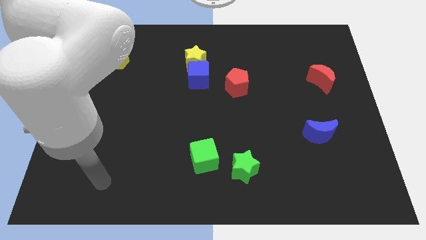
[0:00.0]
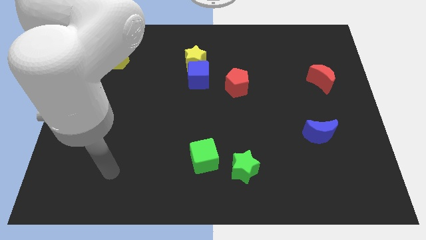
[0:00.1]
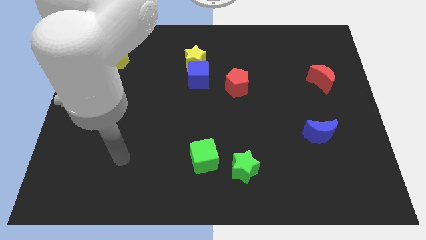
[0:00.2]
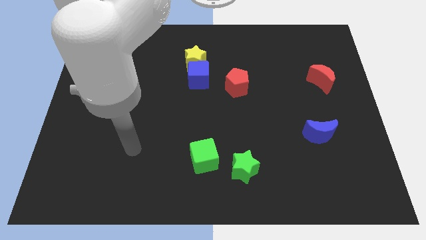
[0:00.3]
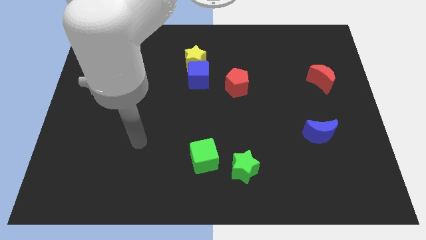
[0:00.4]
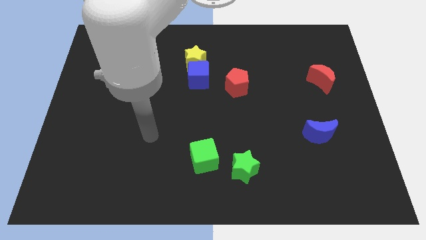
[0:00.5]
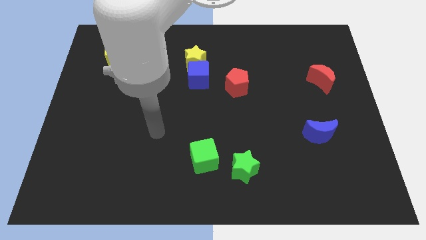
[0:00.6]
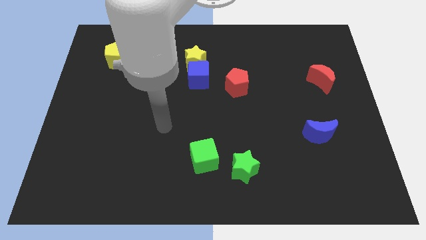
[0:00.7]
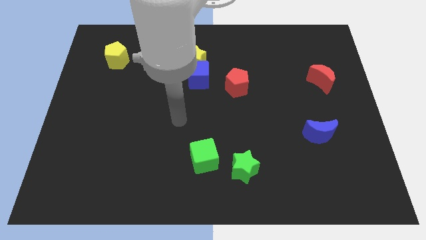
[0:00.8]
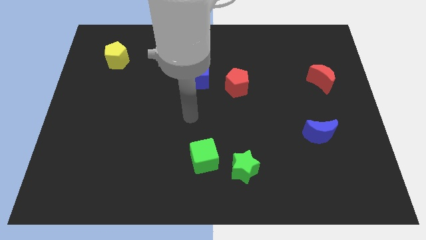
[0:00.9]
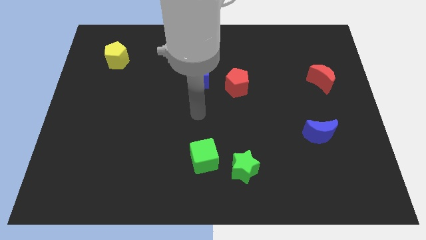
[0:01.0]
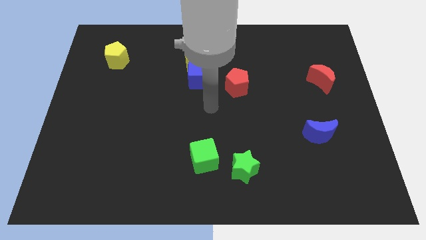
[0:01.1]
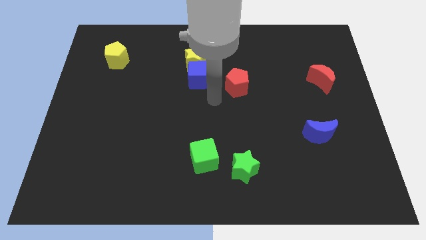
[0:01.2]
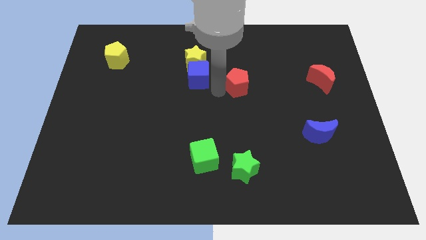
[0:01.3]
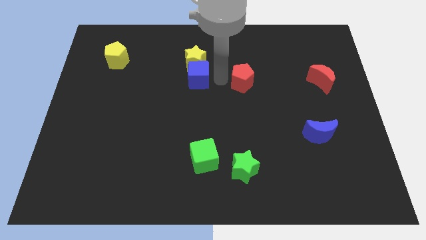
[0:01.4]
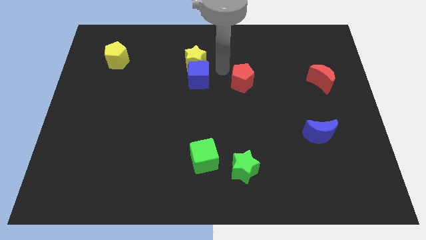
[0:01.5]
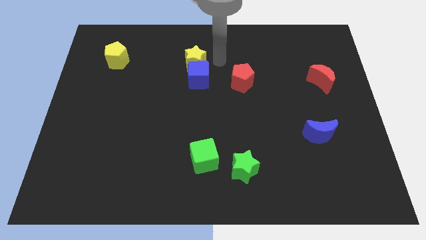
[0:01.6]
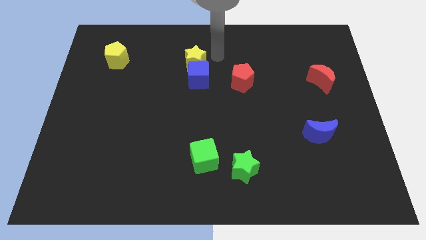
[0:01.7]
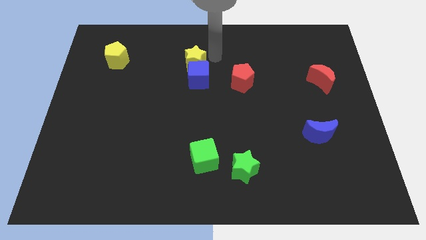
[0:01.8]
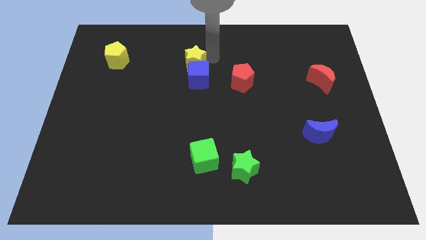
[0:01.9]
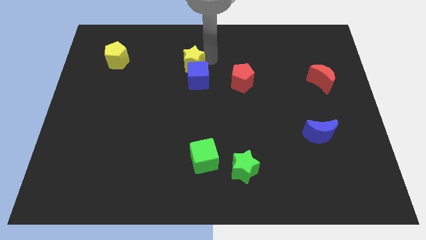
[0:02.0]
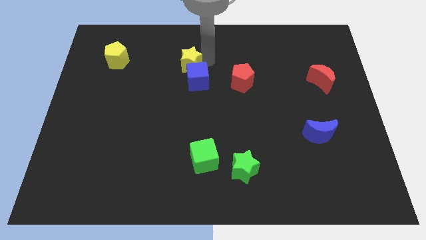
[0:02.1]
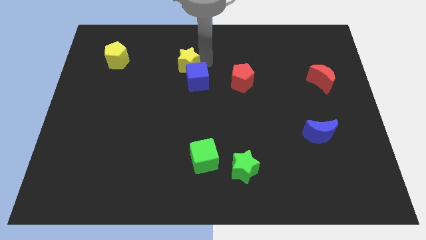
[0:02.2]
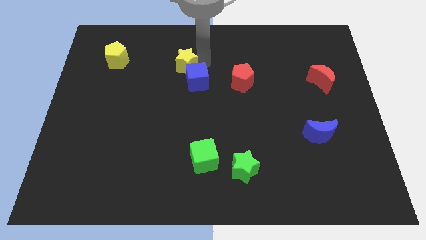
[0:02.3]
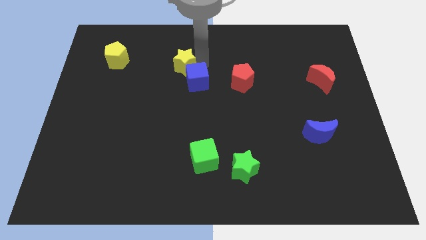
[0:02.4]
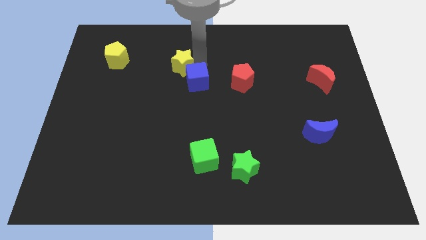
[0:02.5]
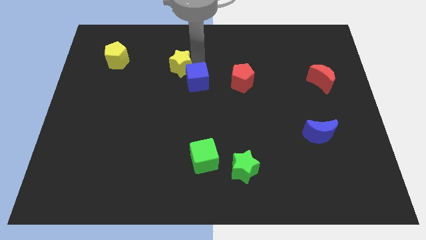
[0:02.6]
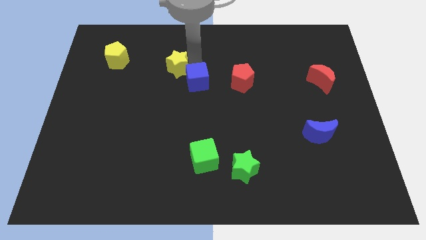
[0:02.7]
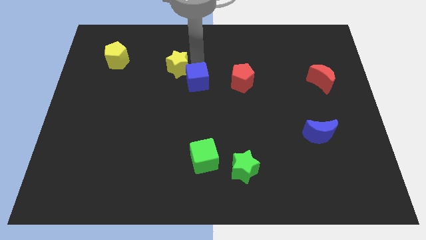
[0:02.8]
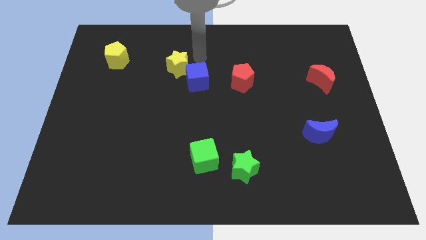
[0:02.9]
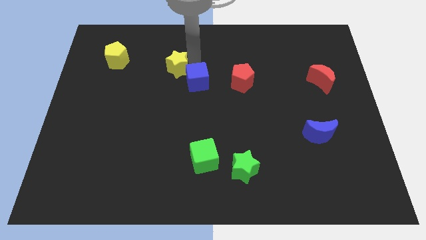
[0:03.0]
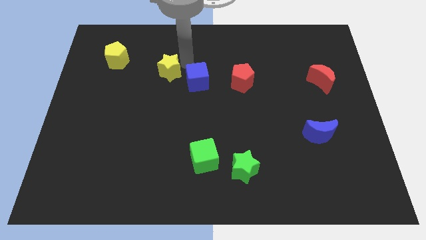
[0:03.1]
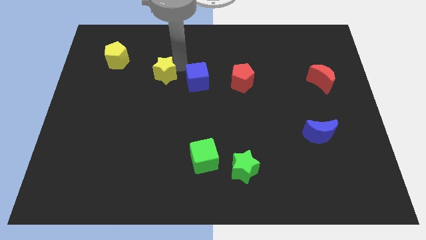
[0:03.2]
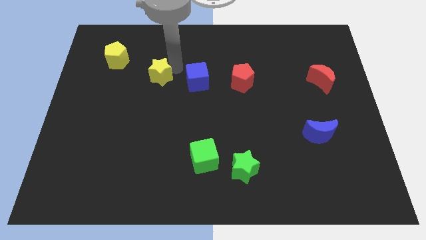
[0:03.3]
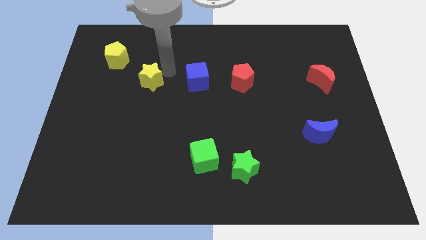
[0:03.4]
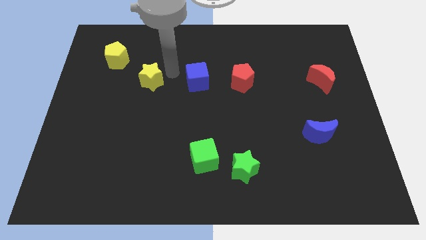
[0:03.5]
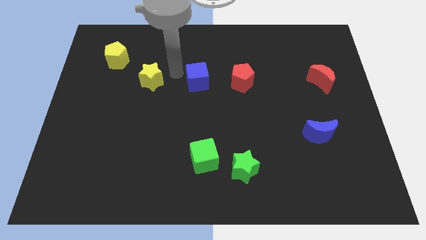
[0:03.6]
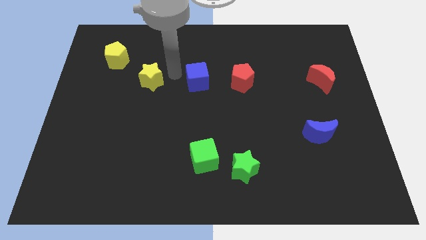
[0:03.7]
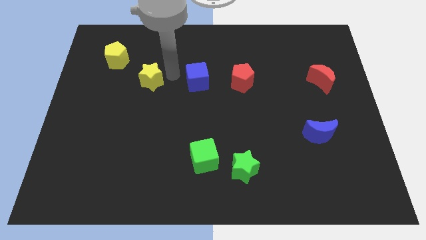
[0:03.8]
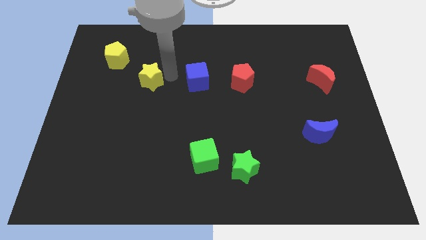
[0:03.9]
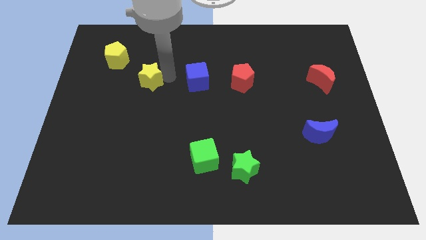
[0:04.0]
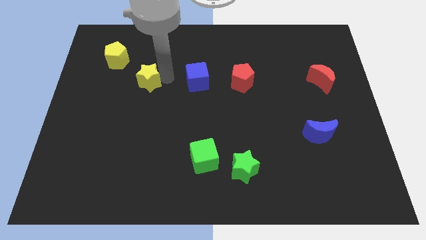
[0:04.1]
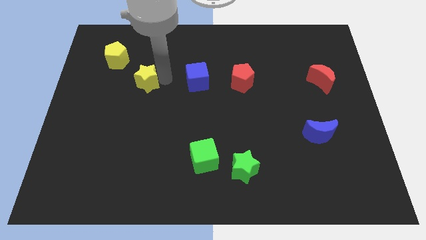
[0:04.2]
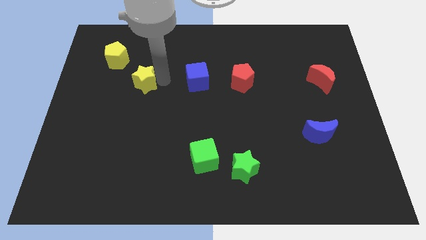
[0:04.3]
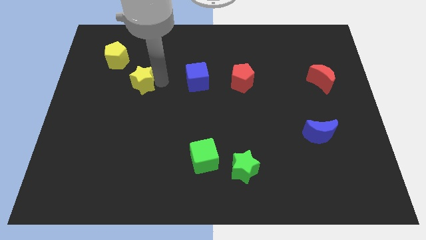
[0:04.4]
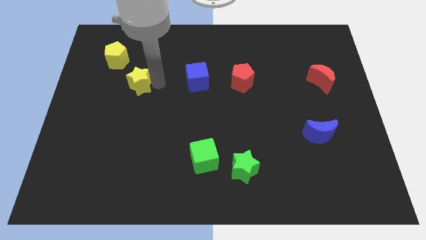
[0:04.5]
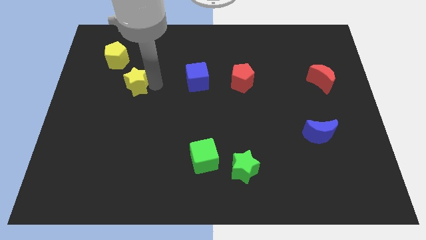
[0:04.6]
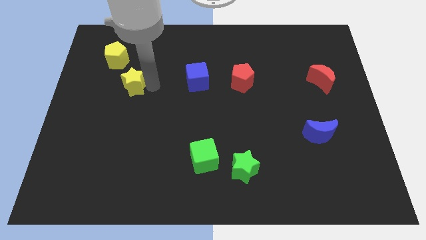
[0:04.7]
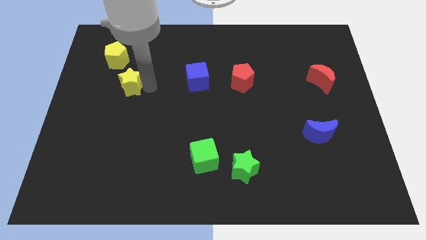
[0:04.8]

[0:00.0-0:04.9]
push the yellow star to the bottom of the yellow pentagon

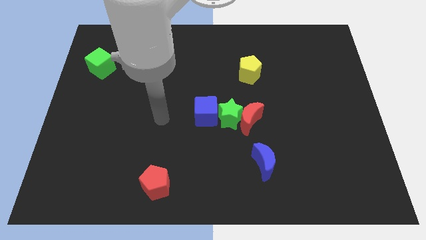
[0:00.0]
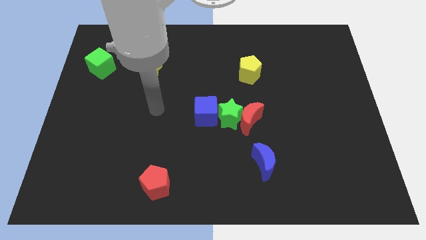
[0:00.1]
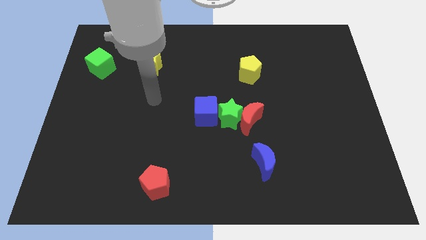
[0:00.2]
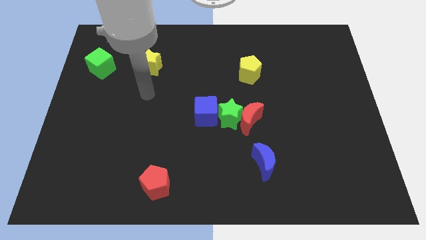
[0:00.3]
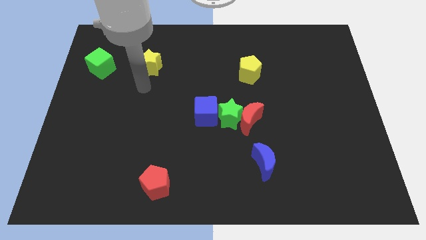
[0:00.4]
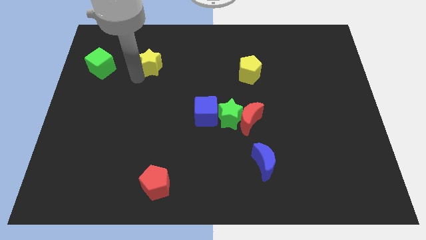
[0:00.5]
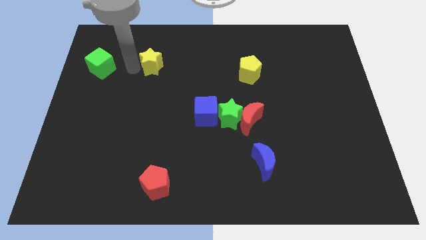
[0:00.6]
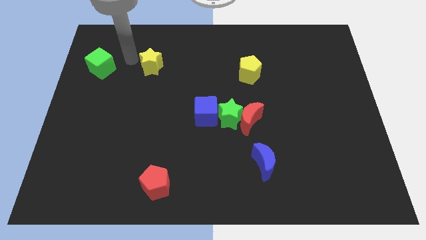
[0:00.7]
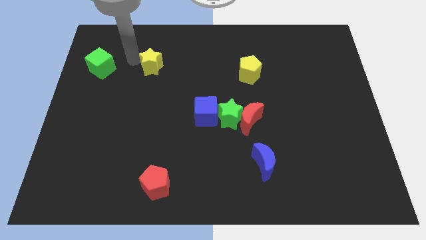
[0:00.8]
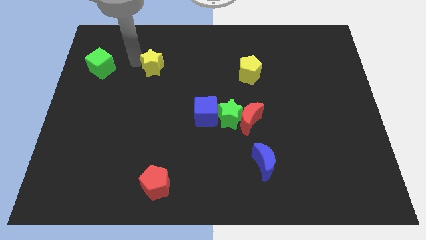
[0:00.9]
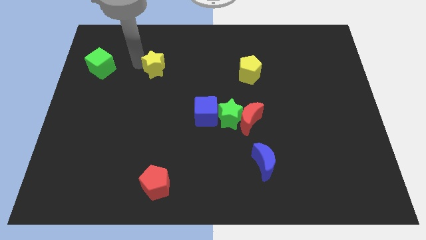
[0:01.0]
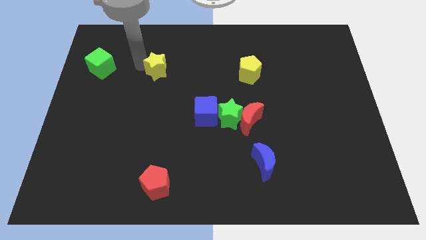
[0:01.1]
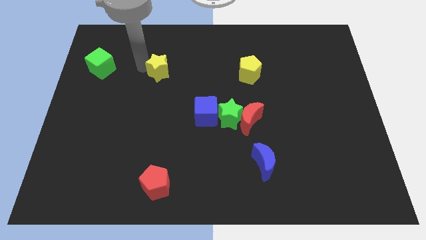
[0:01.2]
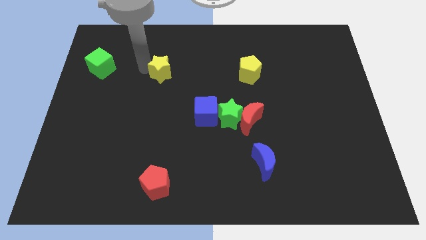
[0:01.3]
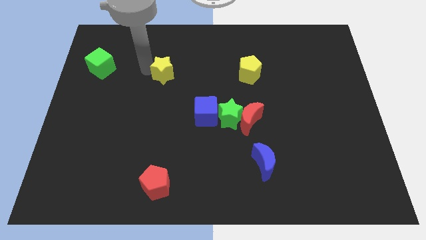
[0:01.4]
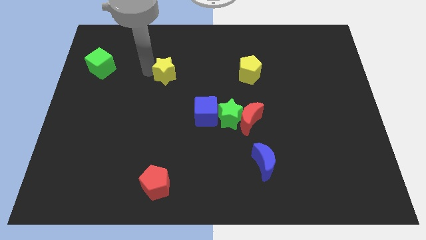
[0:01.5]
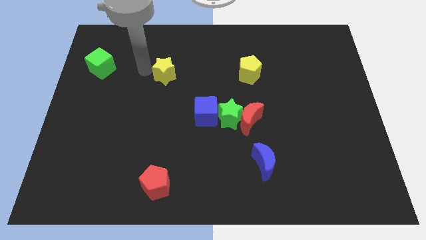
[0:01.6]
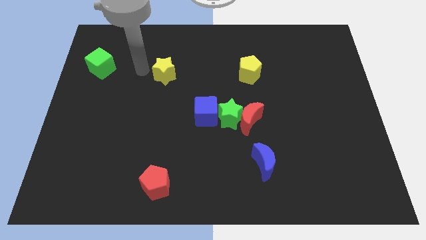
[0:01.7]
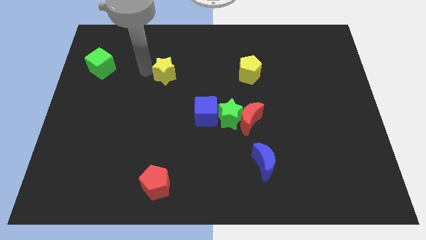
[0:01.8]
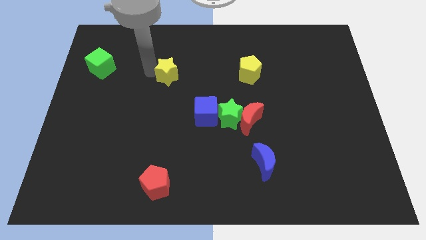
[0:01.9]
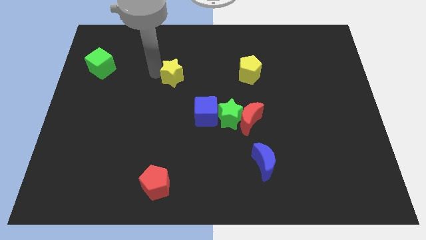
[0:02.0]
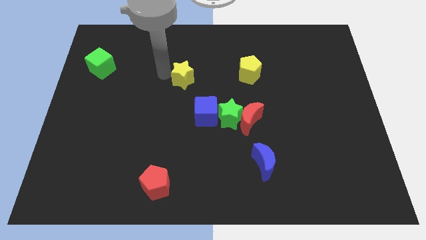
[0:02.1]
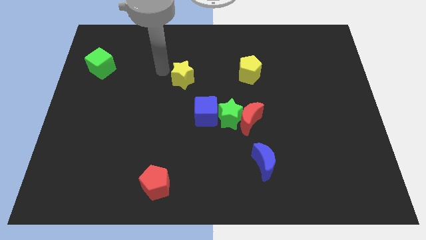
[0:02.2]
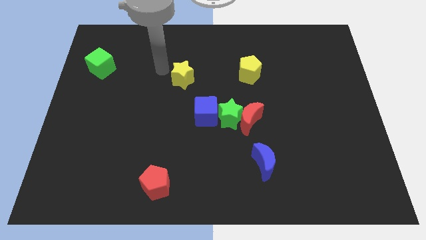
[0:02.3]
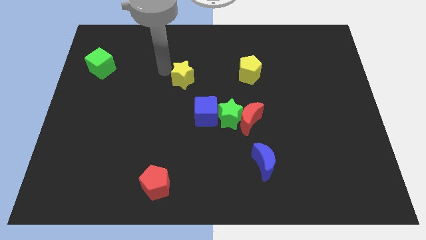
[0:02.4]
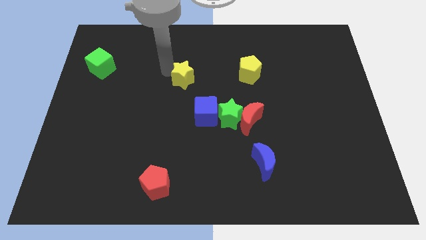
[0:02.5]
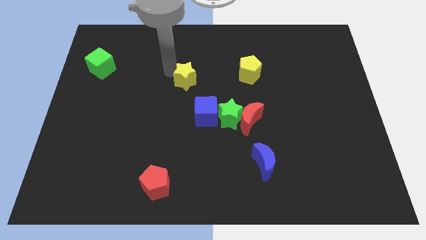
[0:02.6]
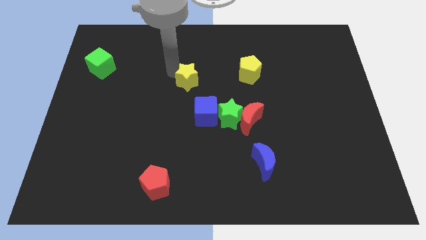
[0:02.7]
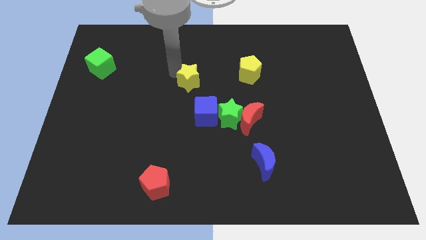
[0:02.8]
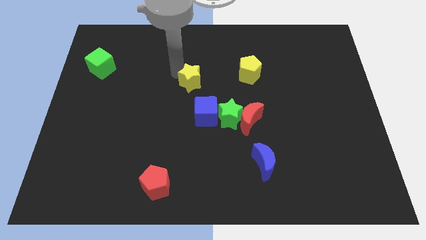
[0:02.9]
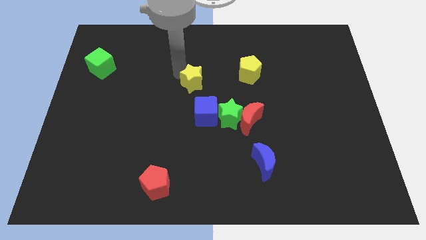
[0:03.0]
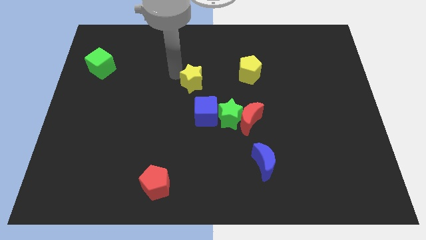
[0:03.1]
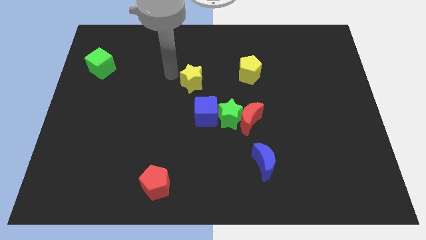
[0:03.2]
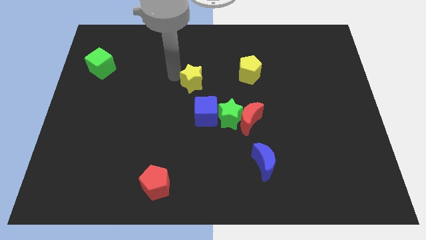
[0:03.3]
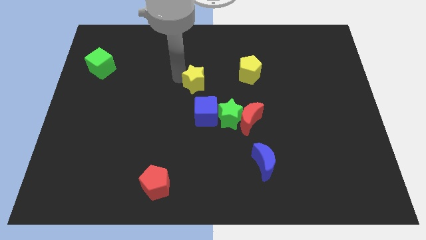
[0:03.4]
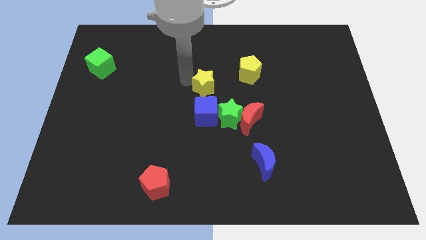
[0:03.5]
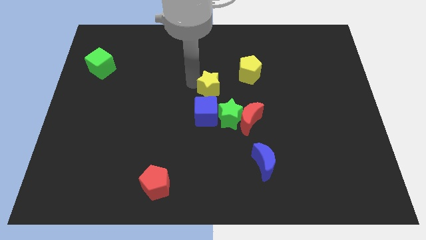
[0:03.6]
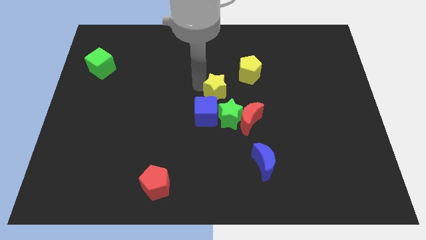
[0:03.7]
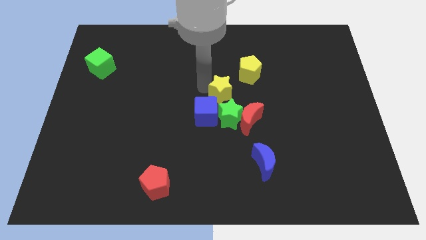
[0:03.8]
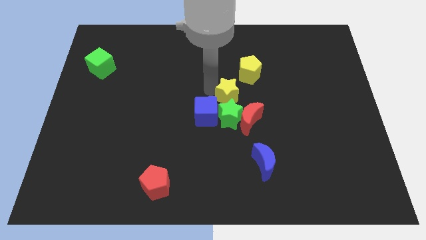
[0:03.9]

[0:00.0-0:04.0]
push the yellow star to the top right of the green star
